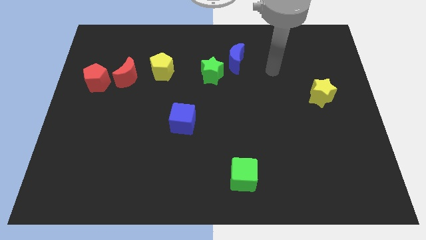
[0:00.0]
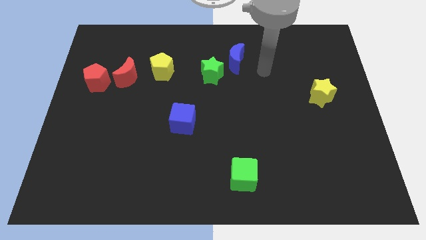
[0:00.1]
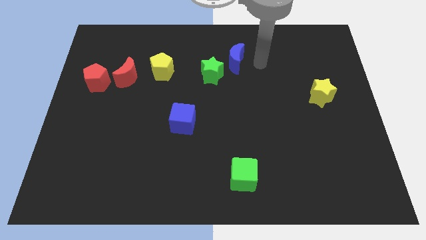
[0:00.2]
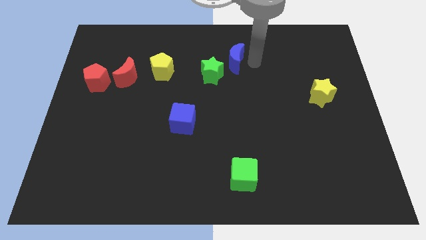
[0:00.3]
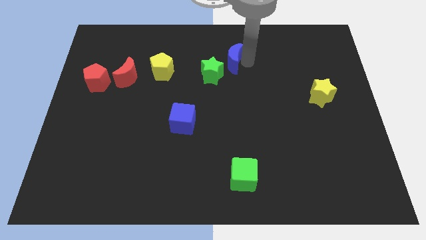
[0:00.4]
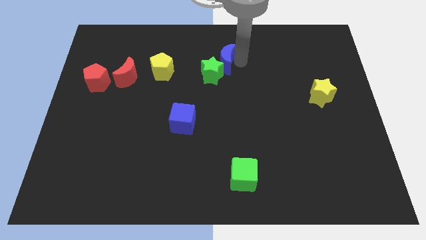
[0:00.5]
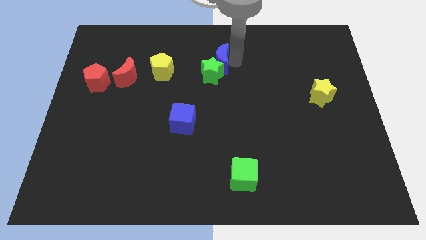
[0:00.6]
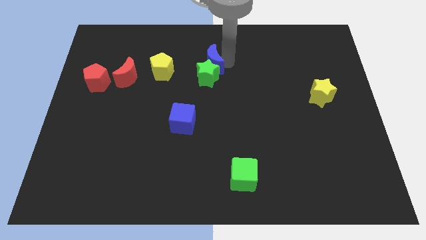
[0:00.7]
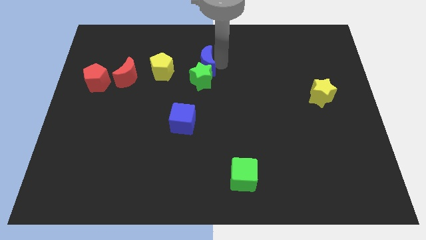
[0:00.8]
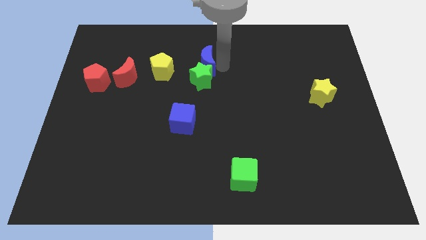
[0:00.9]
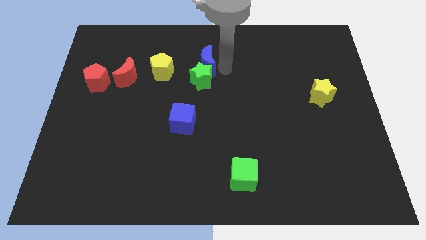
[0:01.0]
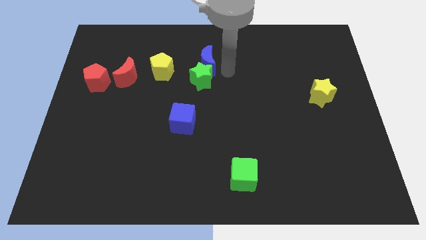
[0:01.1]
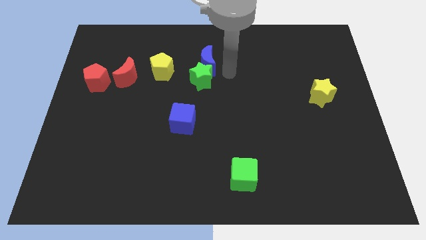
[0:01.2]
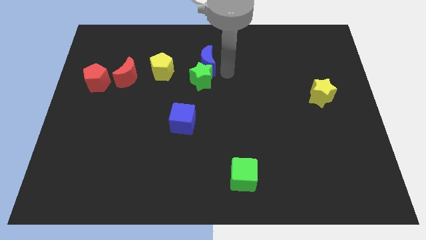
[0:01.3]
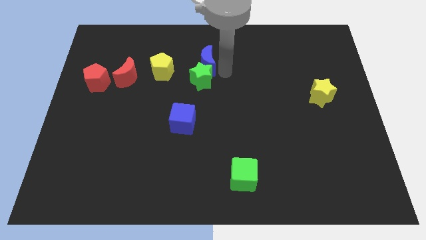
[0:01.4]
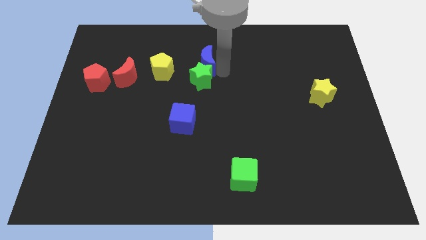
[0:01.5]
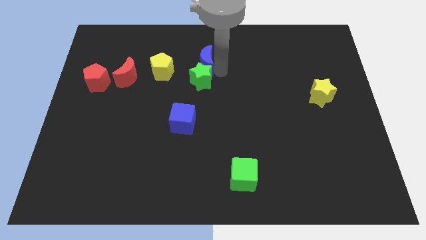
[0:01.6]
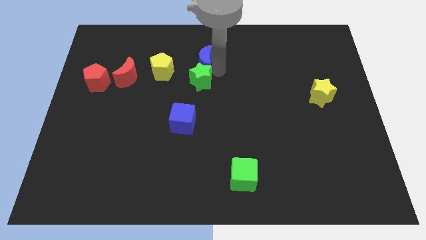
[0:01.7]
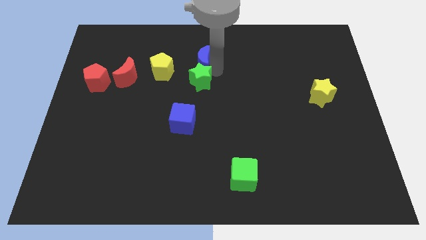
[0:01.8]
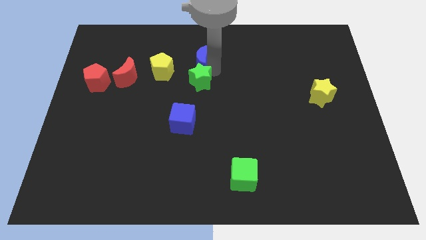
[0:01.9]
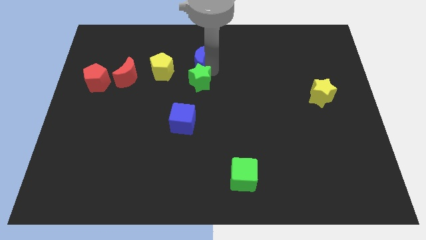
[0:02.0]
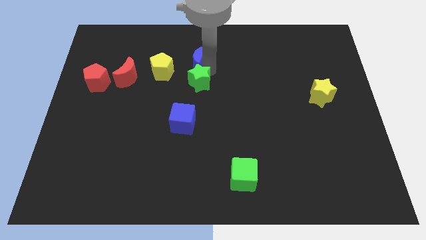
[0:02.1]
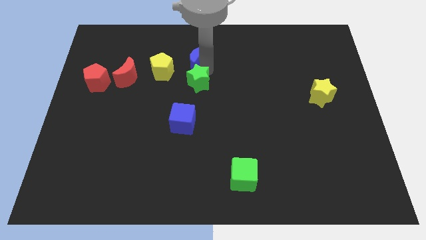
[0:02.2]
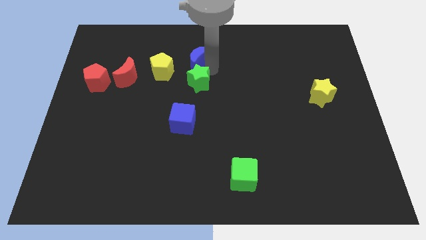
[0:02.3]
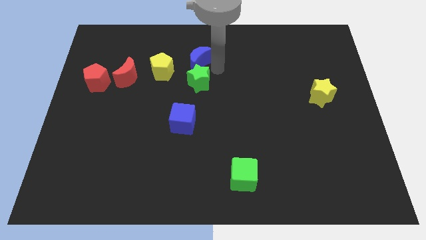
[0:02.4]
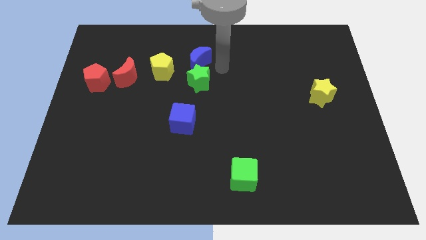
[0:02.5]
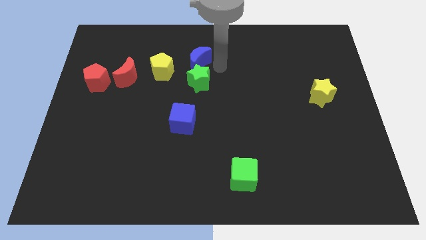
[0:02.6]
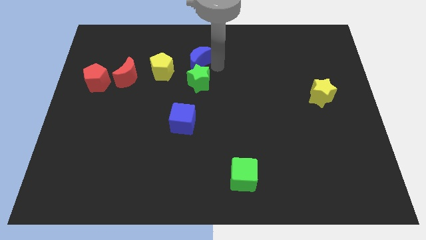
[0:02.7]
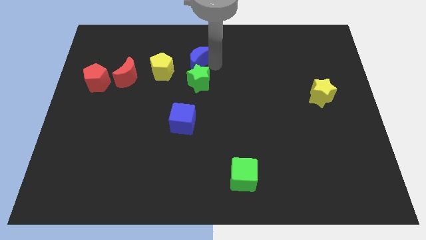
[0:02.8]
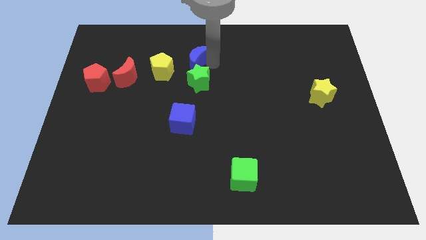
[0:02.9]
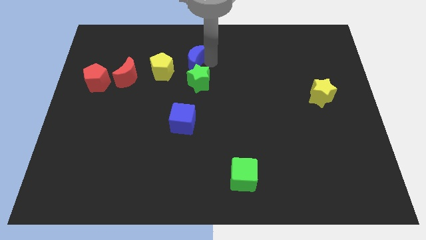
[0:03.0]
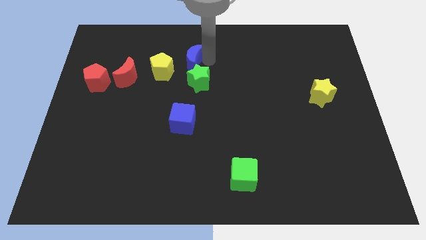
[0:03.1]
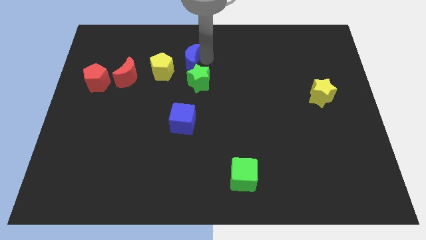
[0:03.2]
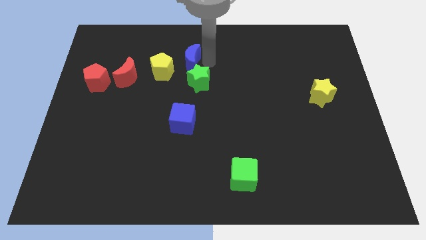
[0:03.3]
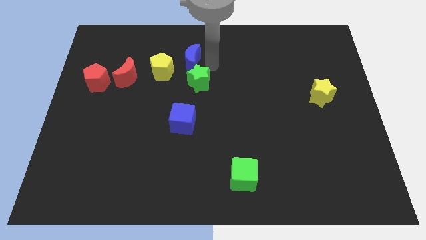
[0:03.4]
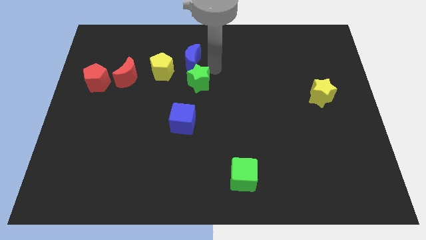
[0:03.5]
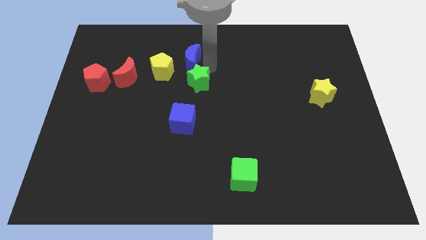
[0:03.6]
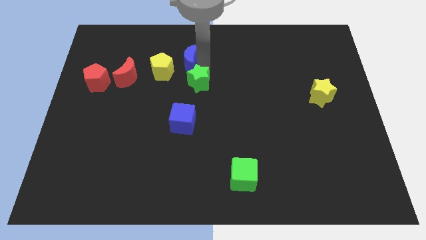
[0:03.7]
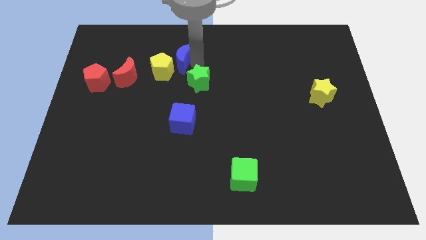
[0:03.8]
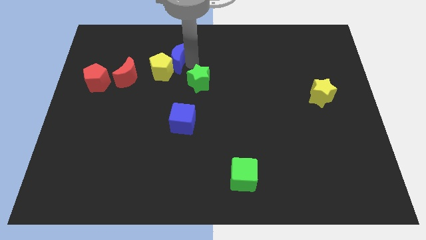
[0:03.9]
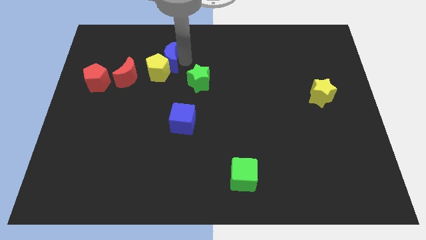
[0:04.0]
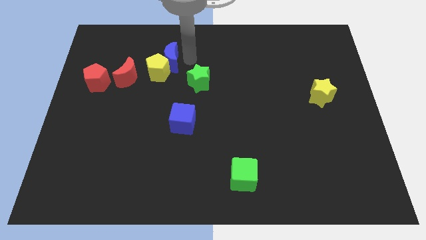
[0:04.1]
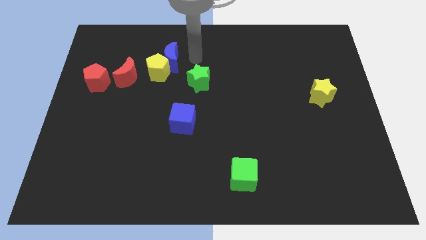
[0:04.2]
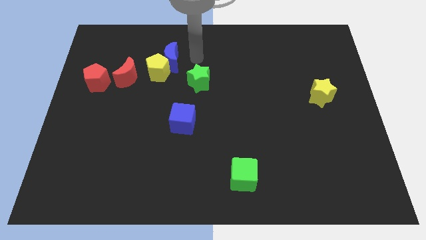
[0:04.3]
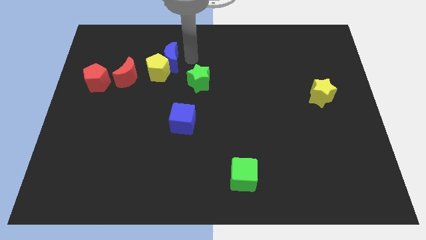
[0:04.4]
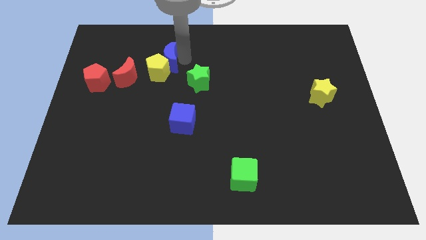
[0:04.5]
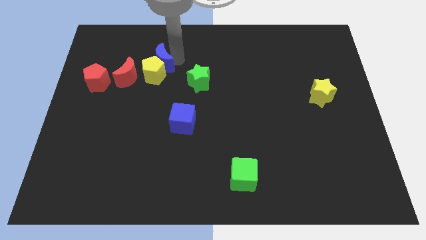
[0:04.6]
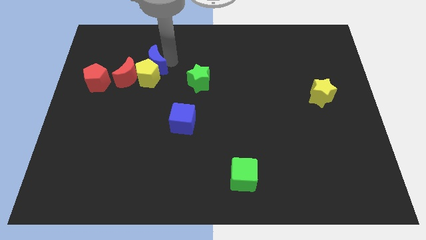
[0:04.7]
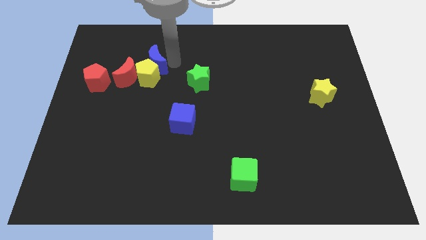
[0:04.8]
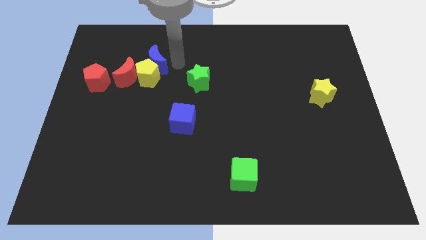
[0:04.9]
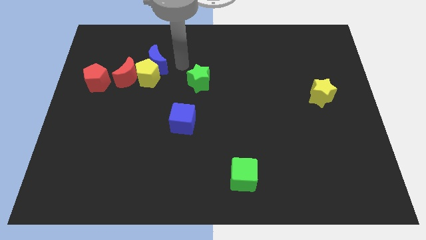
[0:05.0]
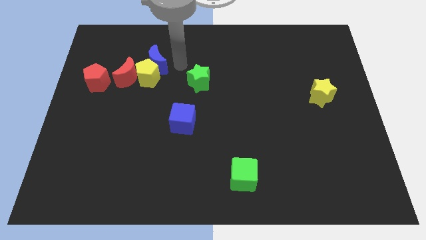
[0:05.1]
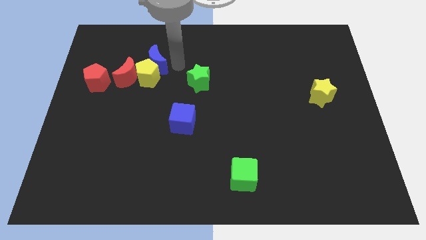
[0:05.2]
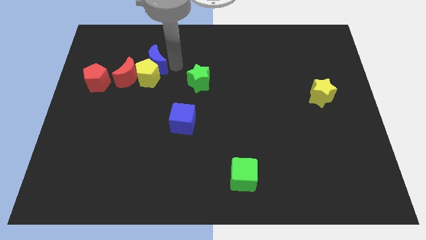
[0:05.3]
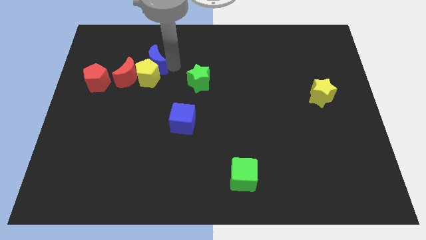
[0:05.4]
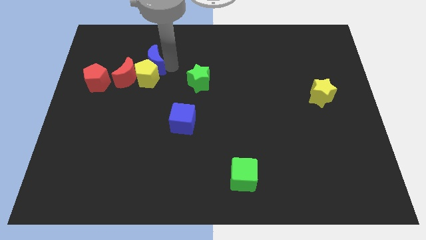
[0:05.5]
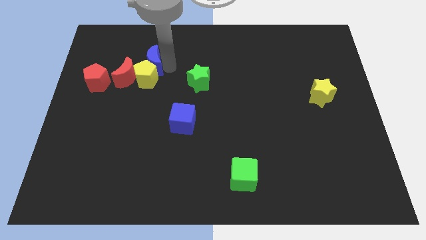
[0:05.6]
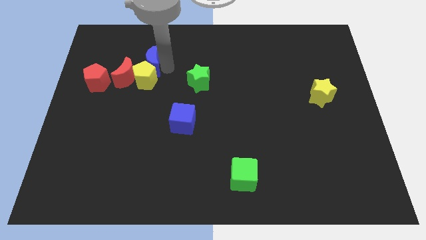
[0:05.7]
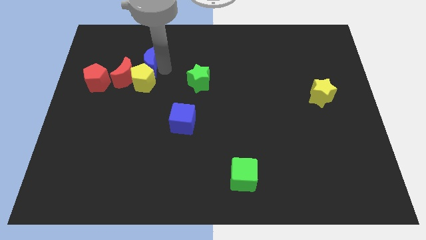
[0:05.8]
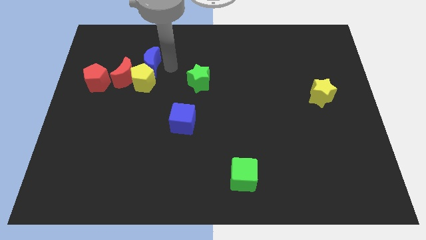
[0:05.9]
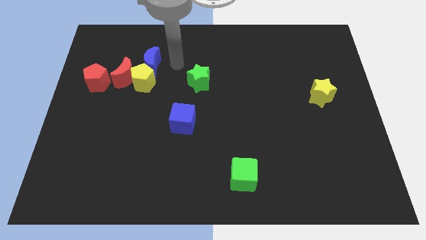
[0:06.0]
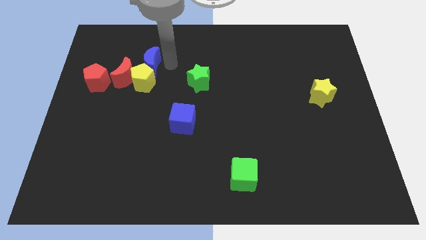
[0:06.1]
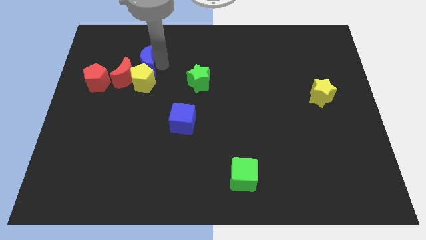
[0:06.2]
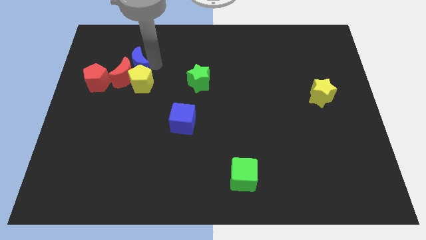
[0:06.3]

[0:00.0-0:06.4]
put the blue moon to the top right side of the red pentagon
